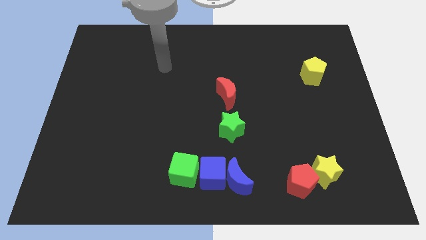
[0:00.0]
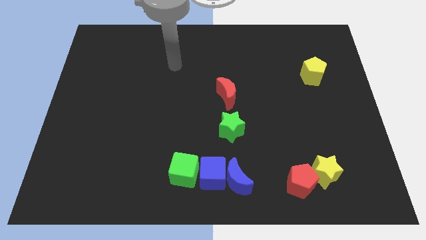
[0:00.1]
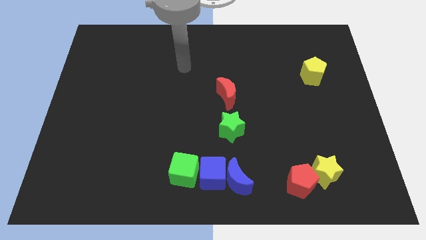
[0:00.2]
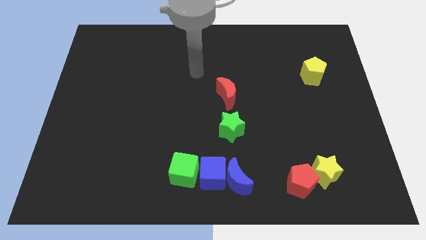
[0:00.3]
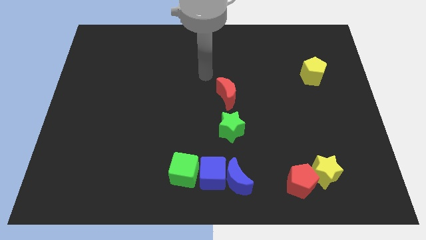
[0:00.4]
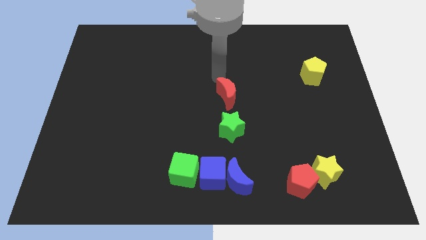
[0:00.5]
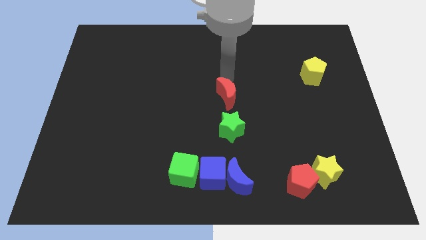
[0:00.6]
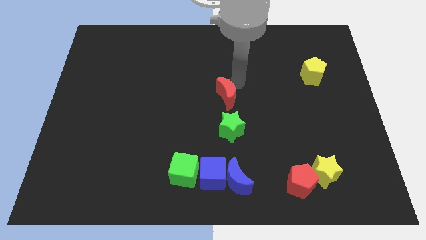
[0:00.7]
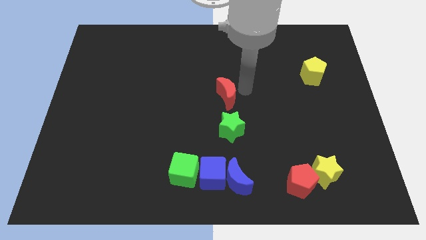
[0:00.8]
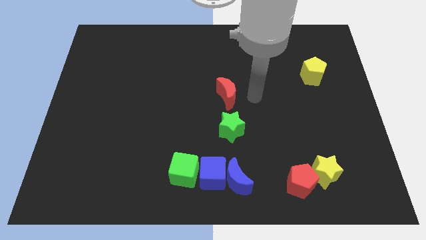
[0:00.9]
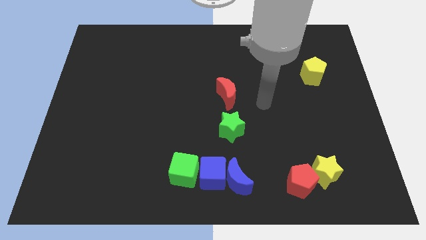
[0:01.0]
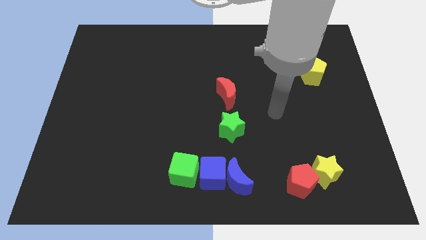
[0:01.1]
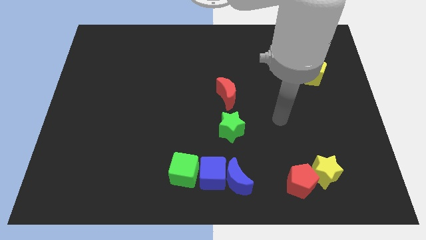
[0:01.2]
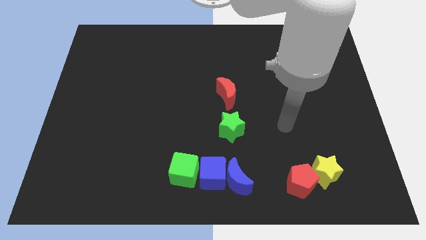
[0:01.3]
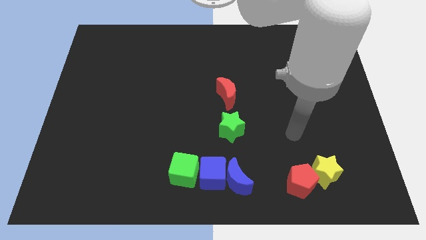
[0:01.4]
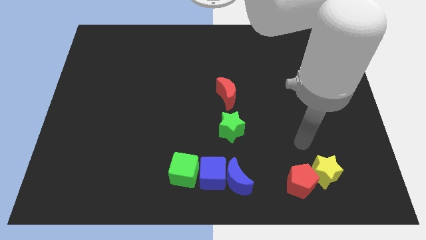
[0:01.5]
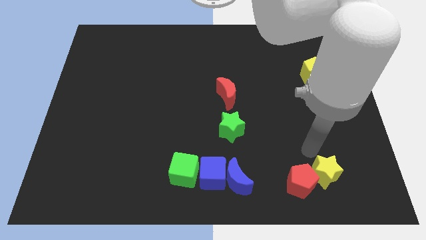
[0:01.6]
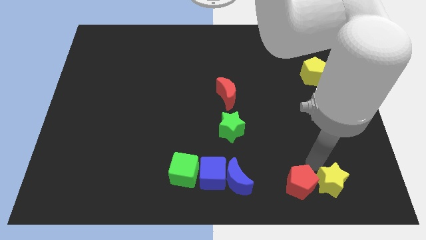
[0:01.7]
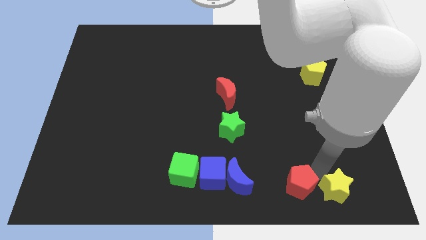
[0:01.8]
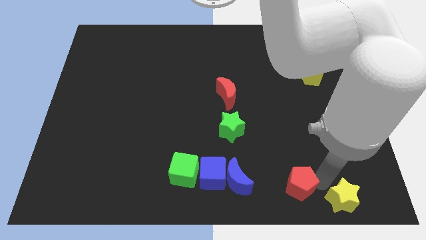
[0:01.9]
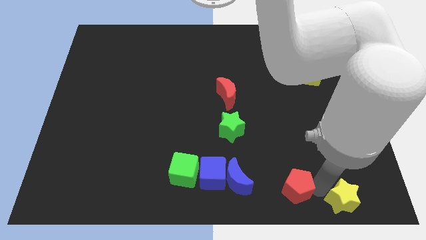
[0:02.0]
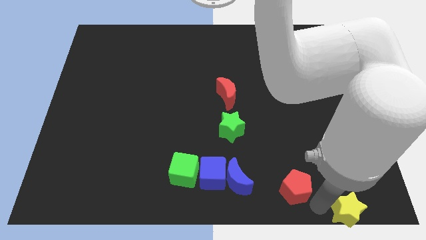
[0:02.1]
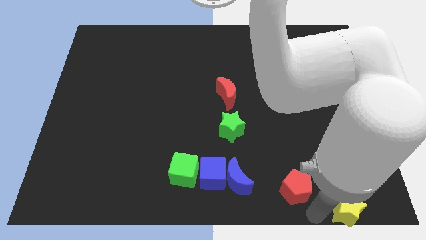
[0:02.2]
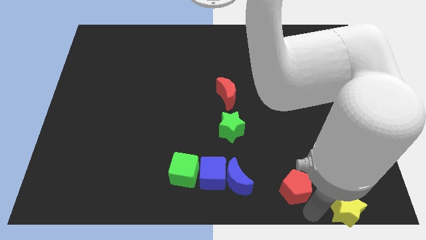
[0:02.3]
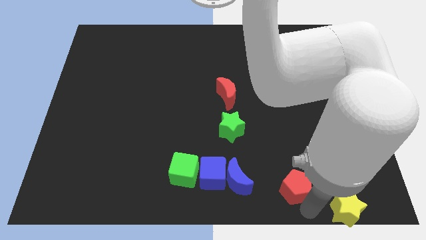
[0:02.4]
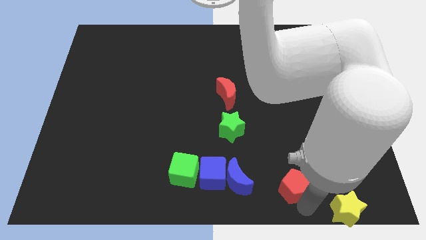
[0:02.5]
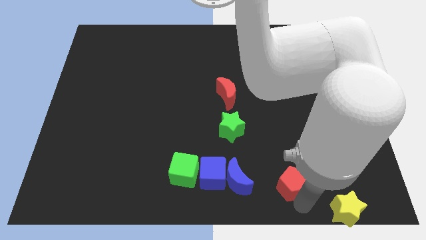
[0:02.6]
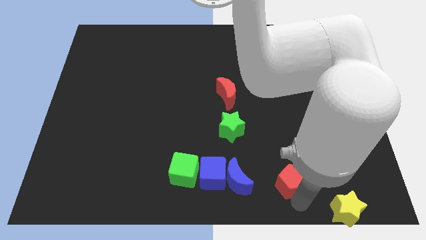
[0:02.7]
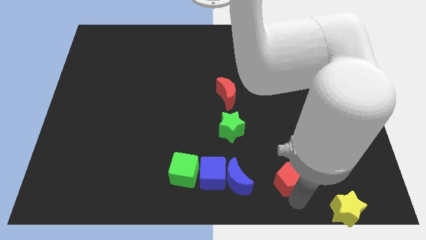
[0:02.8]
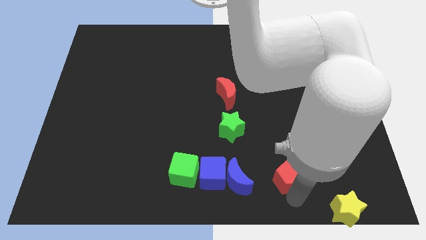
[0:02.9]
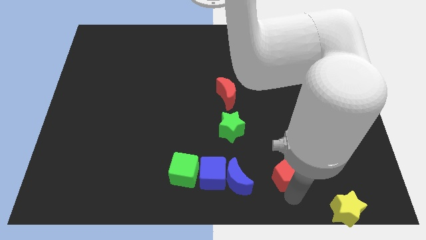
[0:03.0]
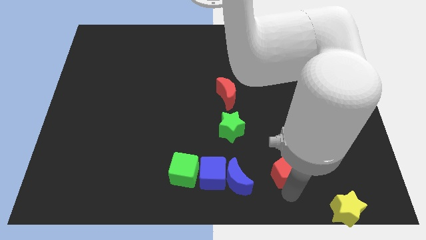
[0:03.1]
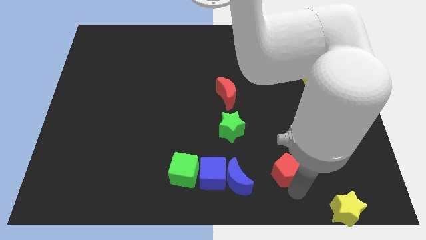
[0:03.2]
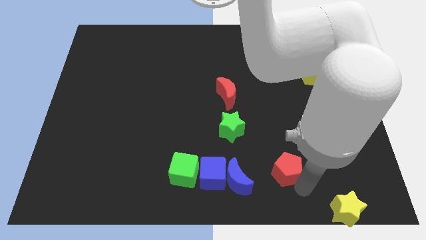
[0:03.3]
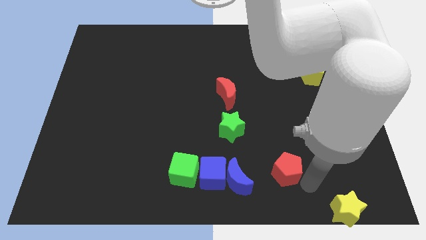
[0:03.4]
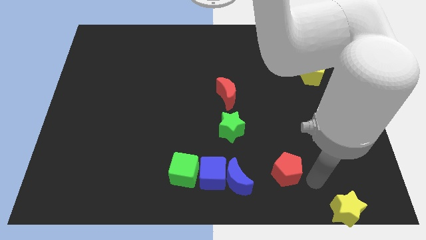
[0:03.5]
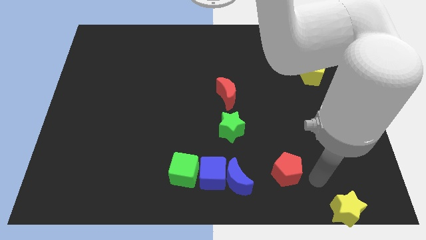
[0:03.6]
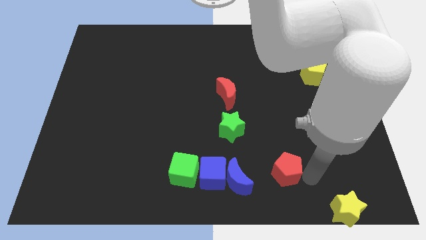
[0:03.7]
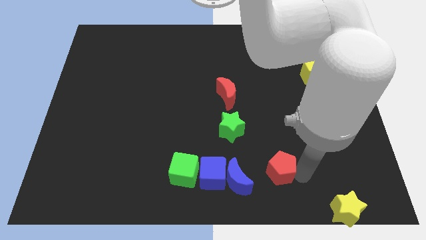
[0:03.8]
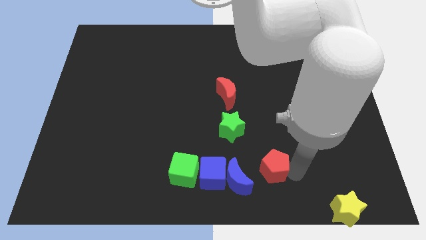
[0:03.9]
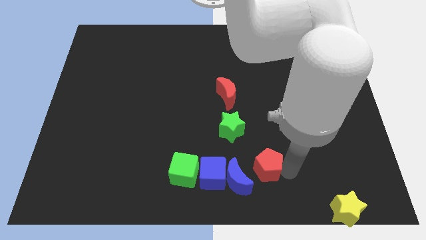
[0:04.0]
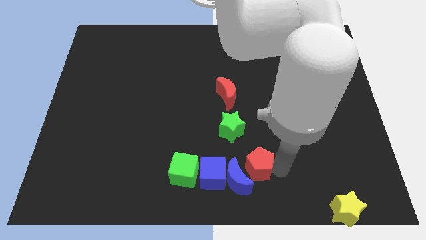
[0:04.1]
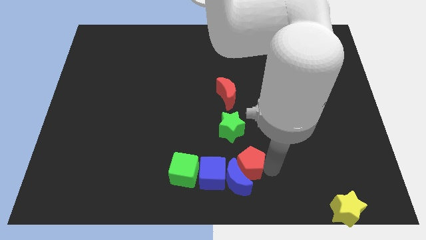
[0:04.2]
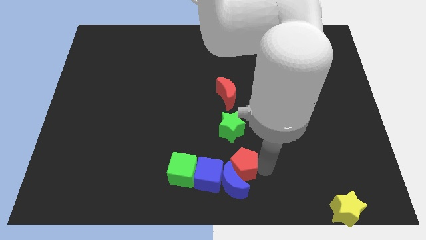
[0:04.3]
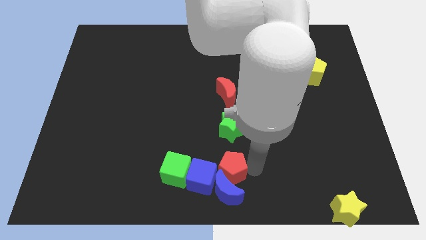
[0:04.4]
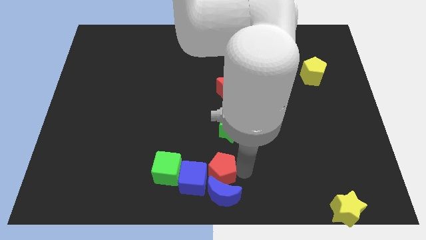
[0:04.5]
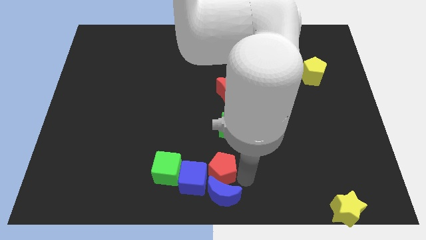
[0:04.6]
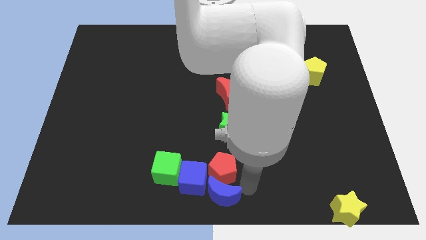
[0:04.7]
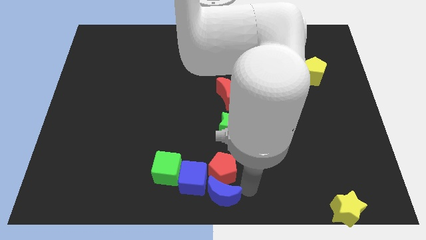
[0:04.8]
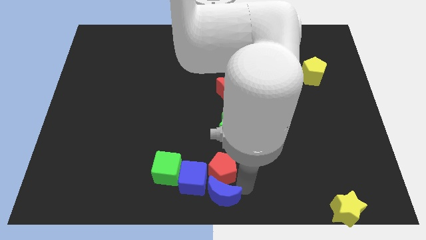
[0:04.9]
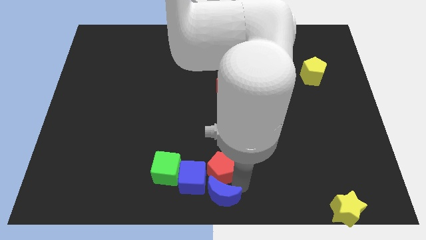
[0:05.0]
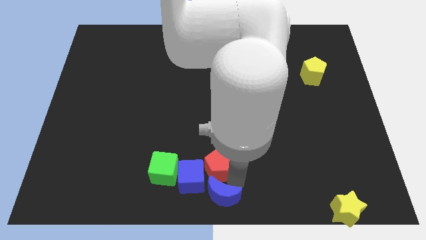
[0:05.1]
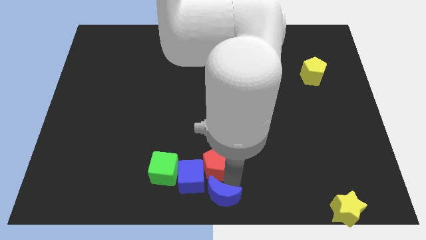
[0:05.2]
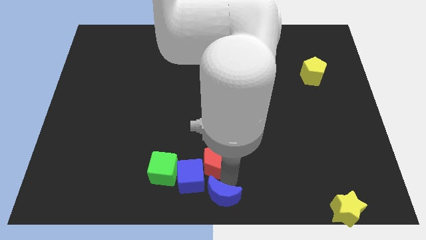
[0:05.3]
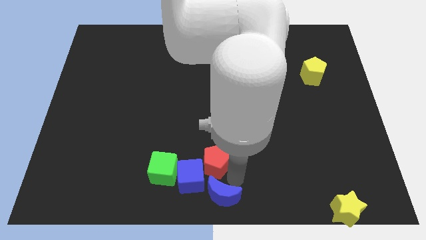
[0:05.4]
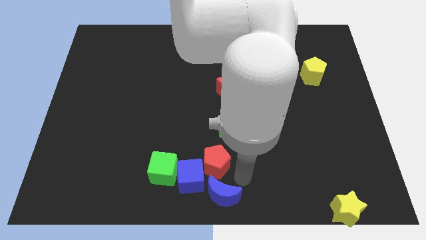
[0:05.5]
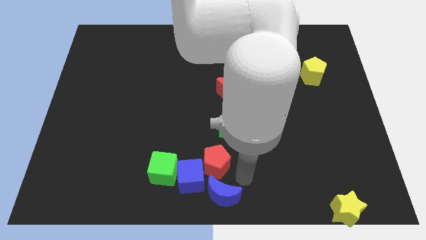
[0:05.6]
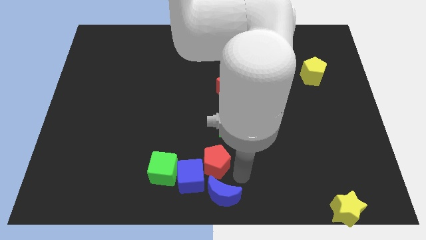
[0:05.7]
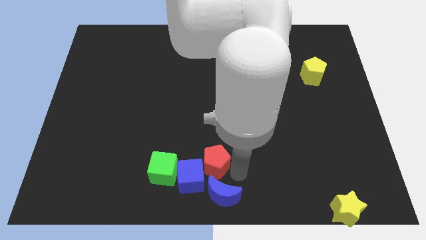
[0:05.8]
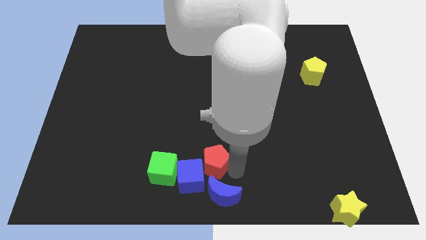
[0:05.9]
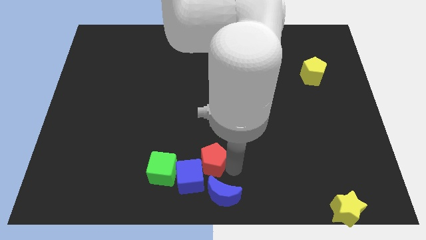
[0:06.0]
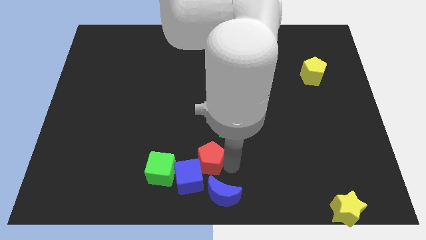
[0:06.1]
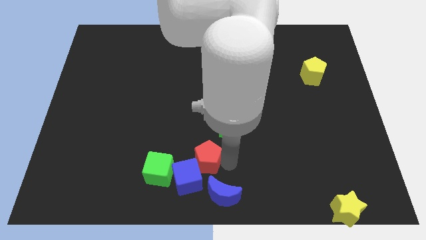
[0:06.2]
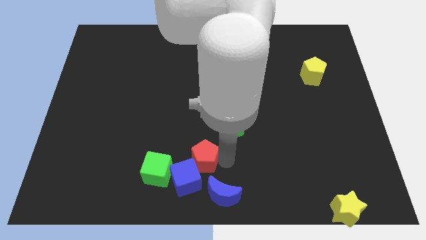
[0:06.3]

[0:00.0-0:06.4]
put the red pentagon diagonally up and to the right of the green cube

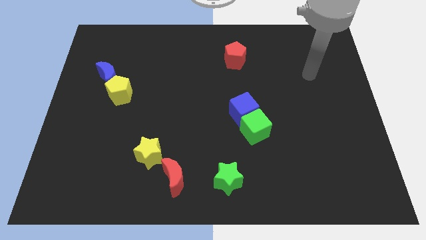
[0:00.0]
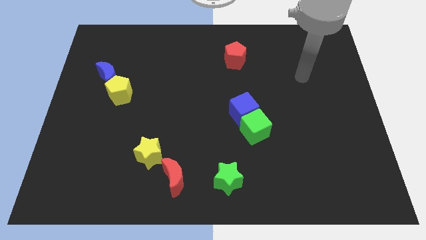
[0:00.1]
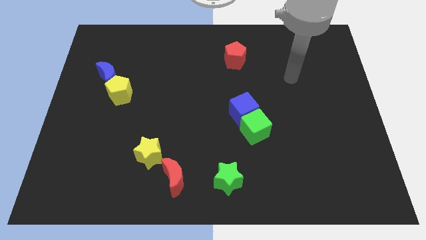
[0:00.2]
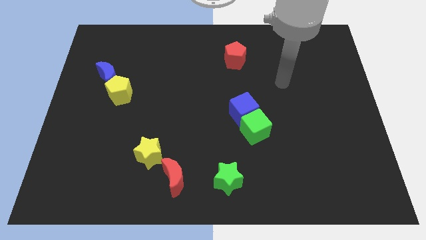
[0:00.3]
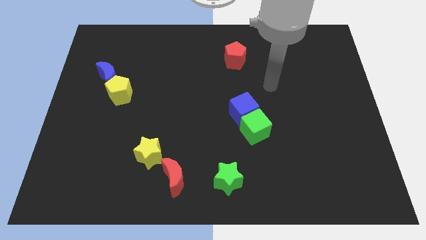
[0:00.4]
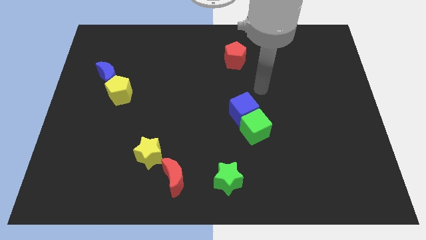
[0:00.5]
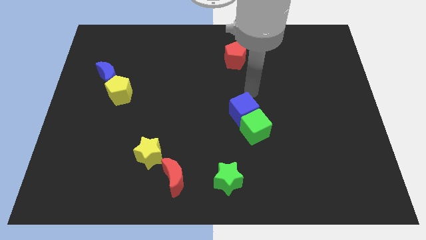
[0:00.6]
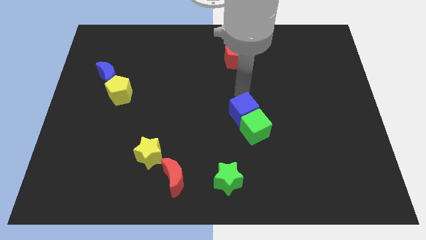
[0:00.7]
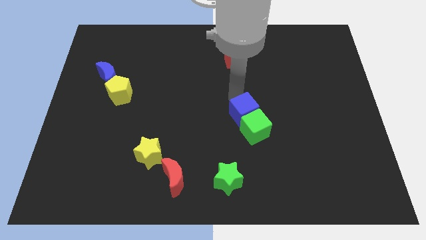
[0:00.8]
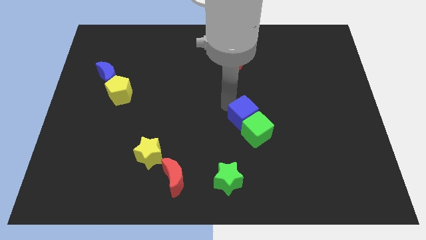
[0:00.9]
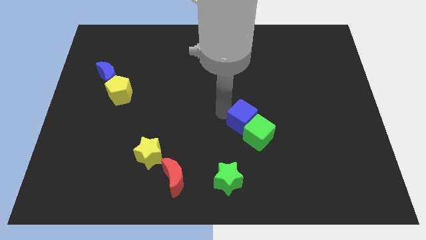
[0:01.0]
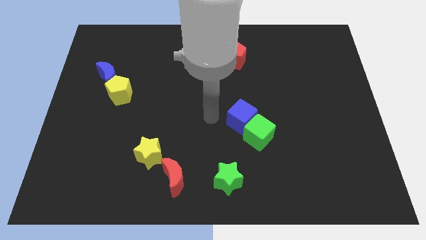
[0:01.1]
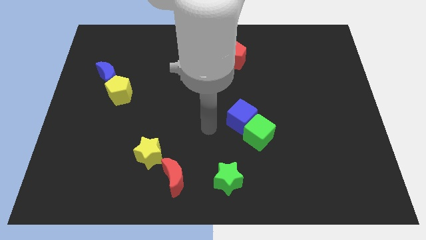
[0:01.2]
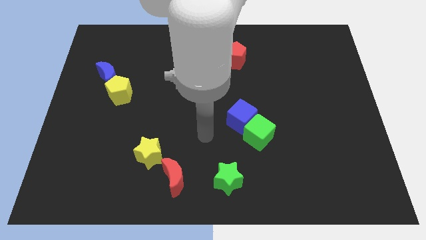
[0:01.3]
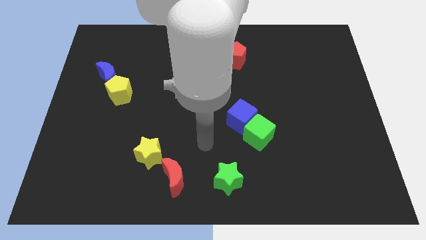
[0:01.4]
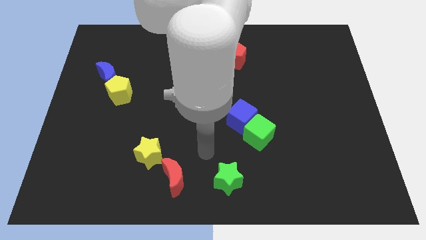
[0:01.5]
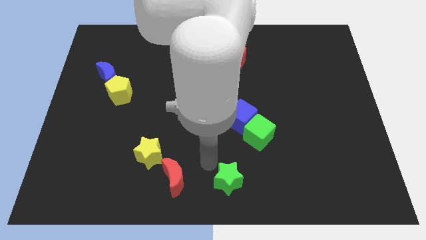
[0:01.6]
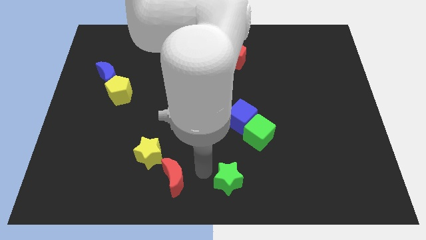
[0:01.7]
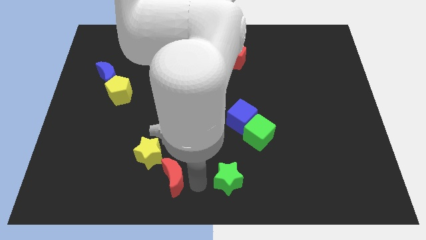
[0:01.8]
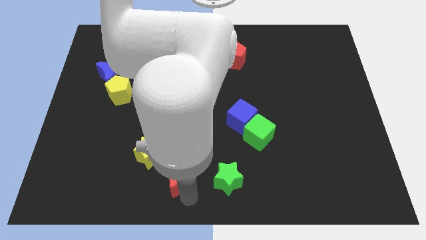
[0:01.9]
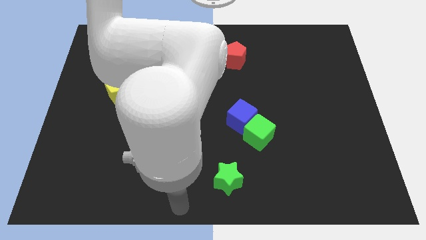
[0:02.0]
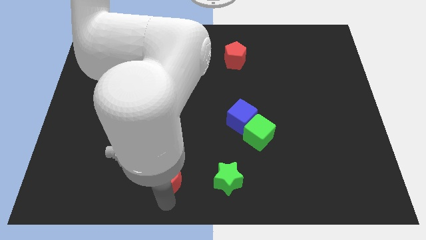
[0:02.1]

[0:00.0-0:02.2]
put the red moon right of the yellow star
